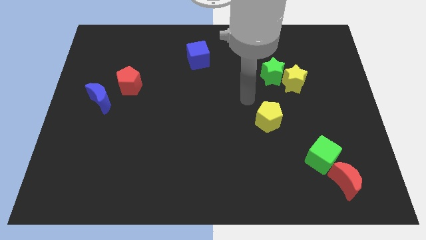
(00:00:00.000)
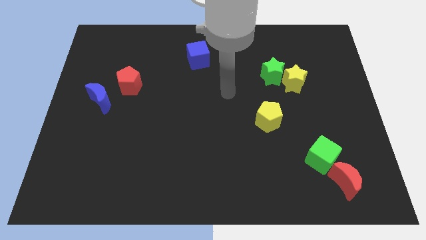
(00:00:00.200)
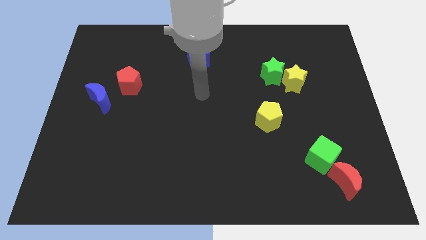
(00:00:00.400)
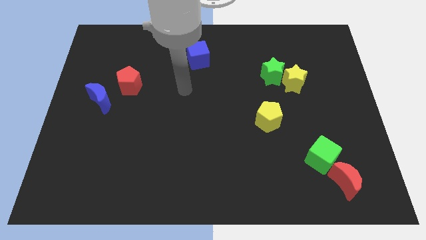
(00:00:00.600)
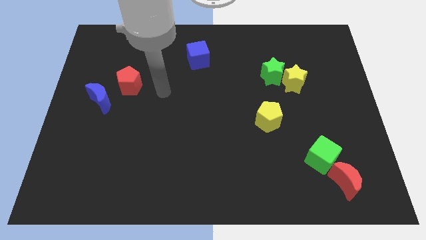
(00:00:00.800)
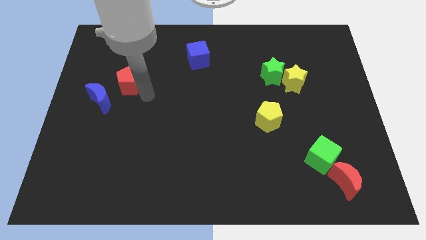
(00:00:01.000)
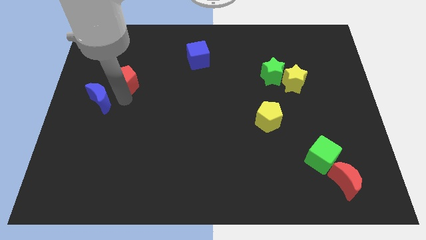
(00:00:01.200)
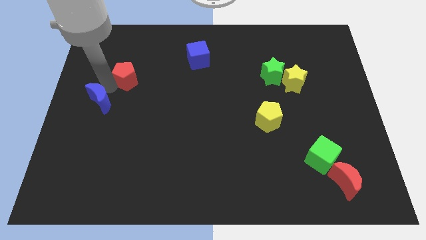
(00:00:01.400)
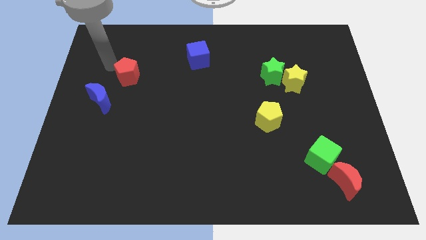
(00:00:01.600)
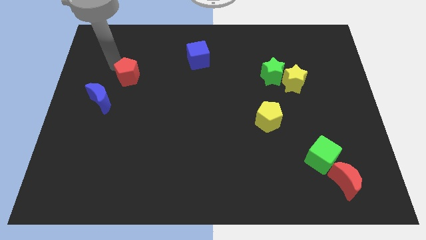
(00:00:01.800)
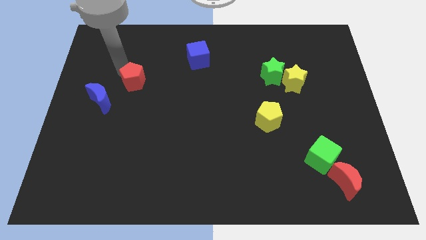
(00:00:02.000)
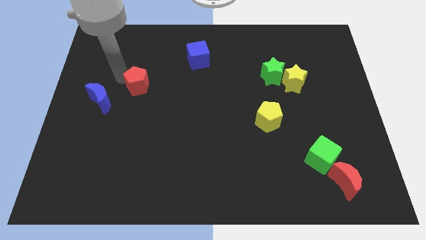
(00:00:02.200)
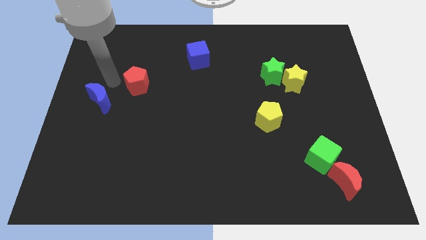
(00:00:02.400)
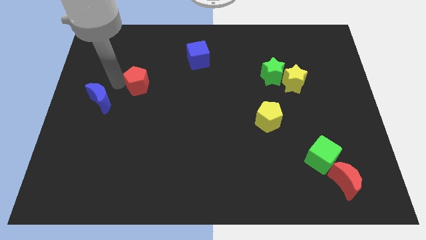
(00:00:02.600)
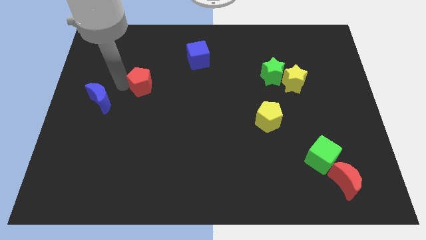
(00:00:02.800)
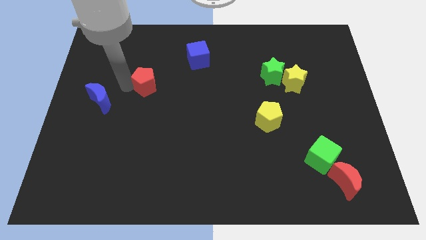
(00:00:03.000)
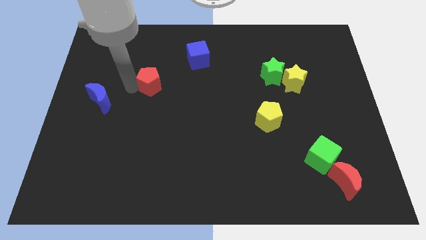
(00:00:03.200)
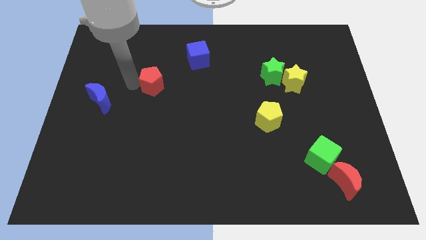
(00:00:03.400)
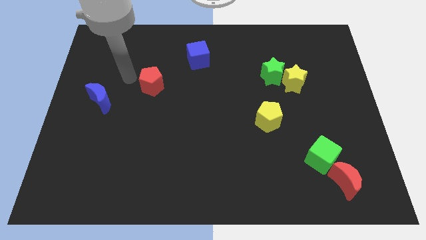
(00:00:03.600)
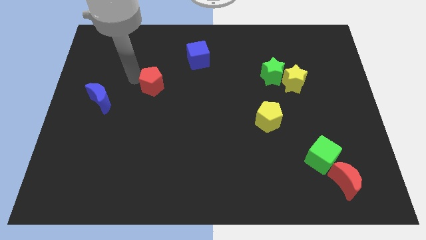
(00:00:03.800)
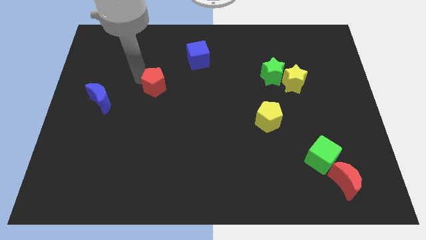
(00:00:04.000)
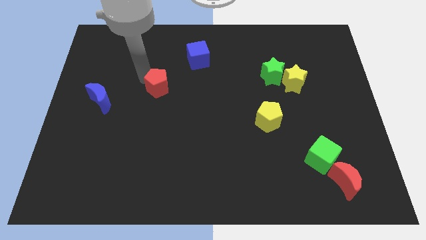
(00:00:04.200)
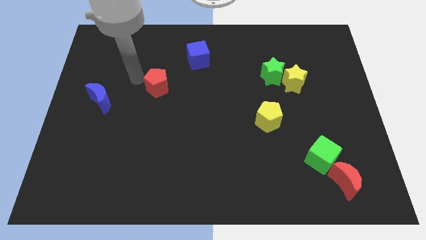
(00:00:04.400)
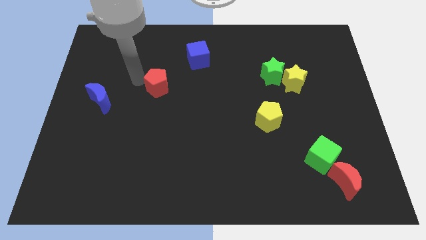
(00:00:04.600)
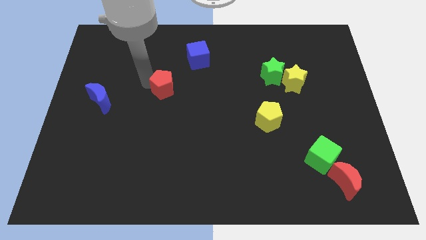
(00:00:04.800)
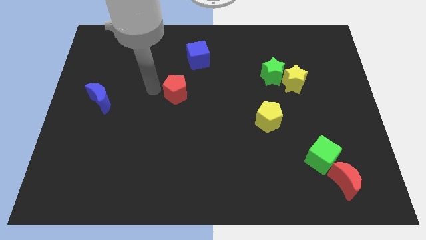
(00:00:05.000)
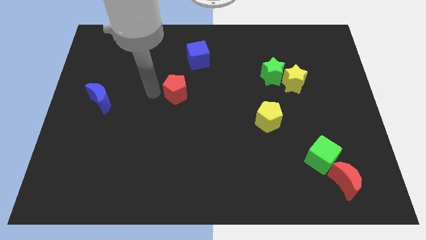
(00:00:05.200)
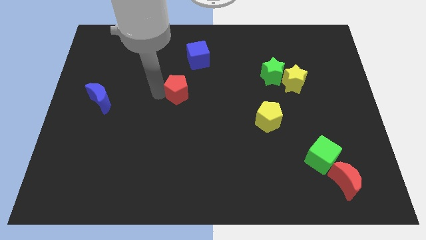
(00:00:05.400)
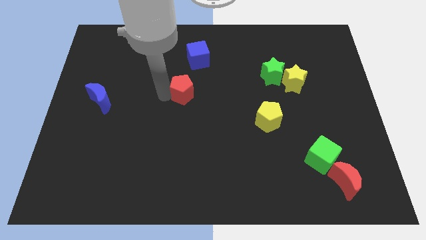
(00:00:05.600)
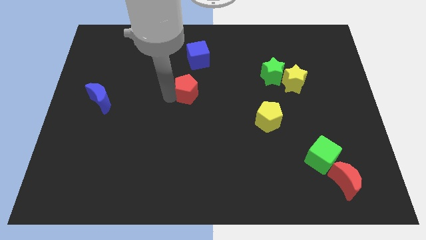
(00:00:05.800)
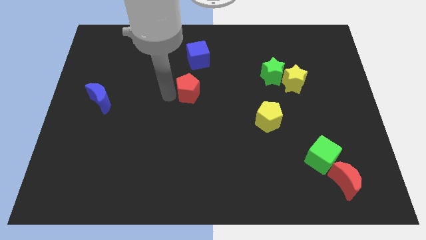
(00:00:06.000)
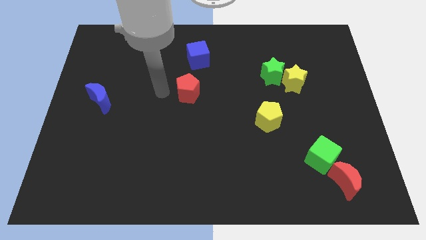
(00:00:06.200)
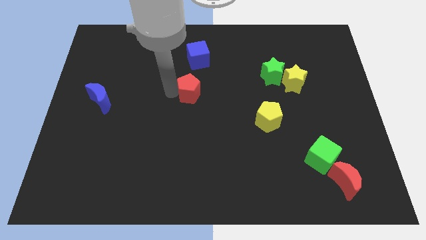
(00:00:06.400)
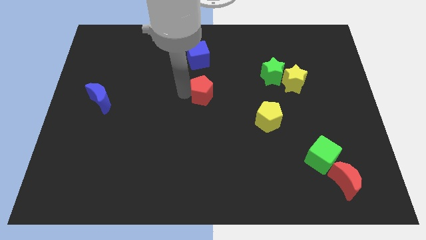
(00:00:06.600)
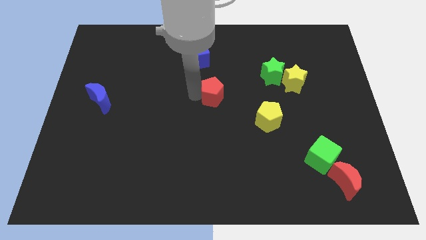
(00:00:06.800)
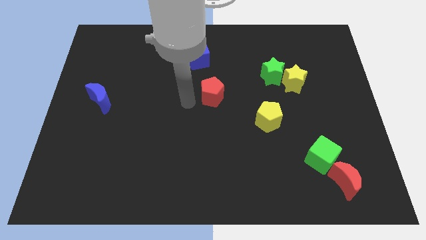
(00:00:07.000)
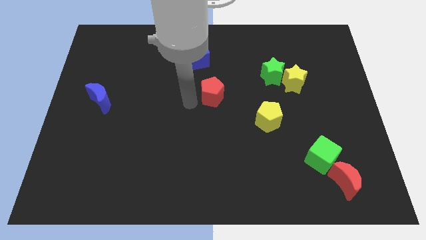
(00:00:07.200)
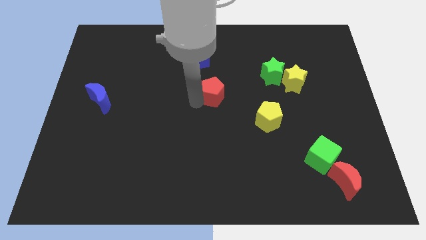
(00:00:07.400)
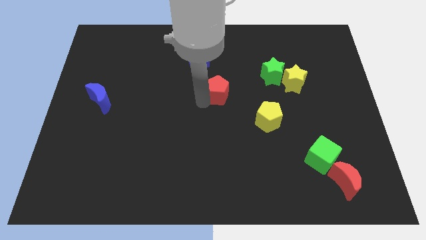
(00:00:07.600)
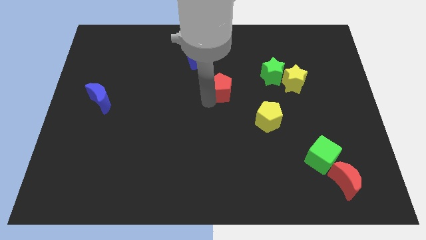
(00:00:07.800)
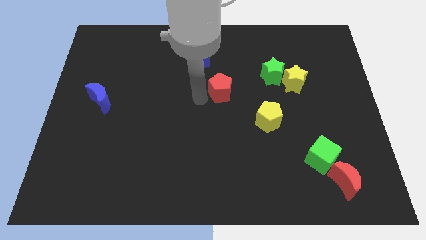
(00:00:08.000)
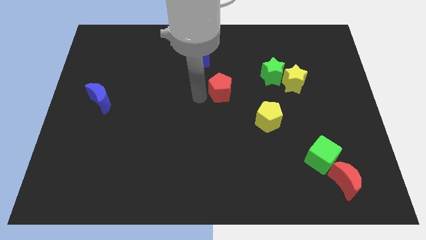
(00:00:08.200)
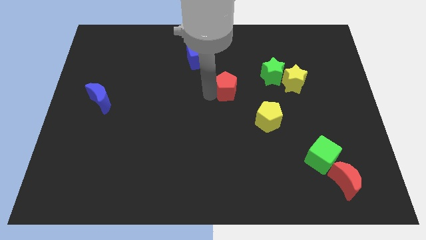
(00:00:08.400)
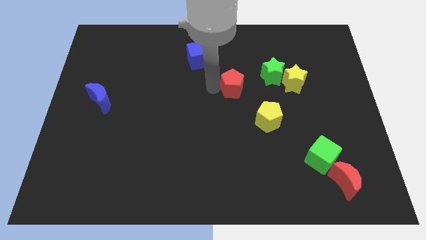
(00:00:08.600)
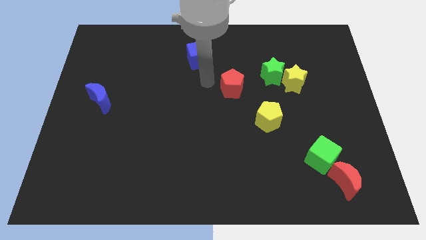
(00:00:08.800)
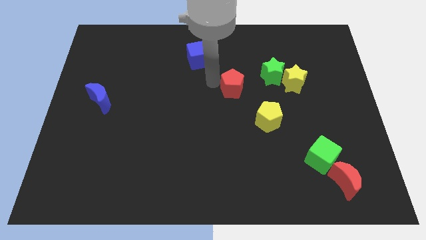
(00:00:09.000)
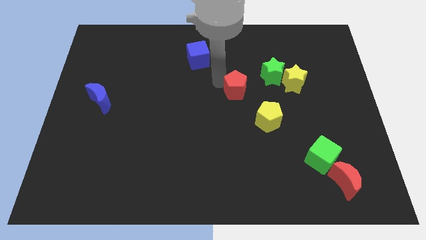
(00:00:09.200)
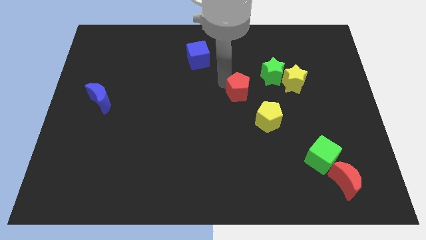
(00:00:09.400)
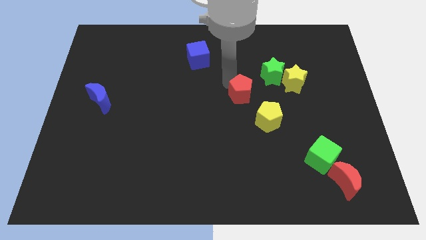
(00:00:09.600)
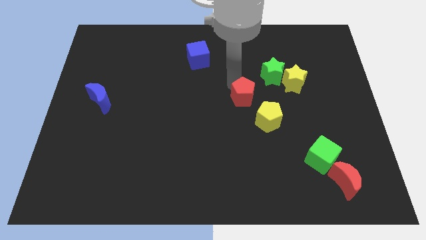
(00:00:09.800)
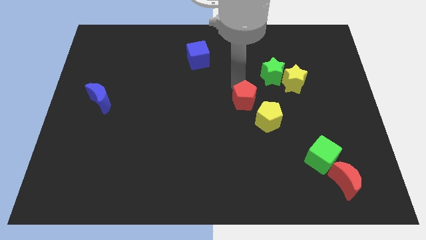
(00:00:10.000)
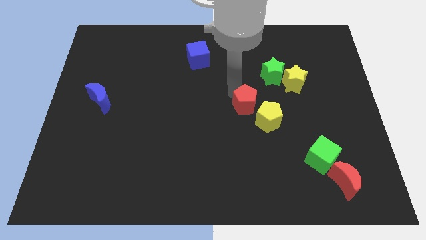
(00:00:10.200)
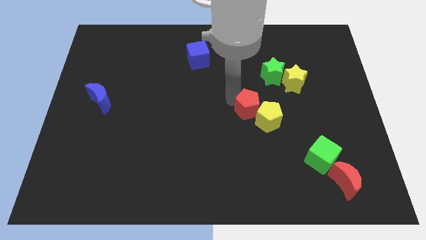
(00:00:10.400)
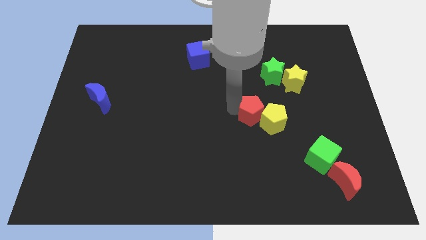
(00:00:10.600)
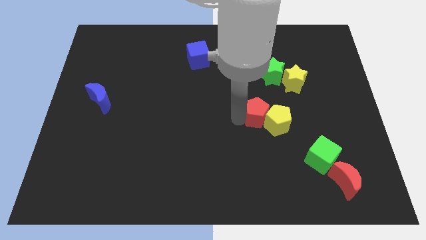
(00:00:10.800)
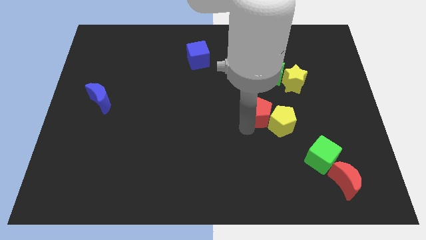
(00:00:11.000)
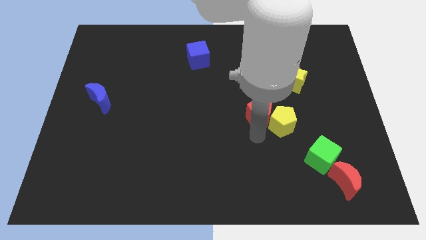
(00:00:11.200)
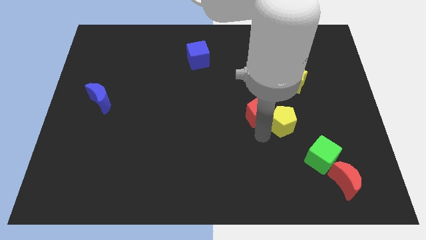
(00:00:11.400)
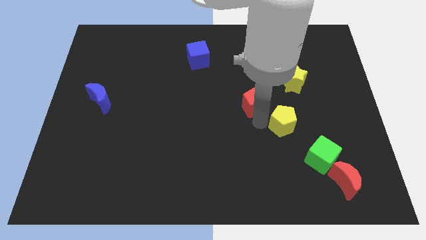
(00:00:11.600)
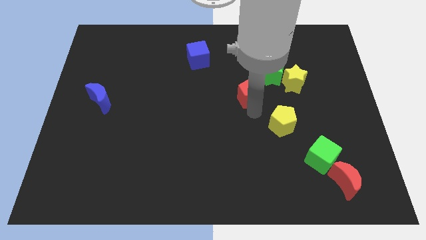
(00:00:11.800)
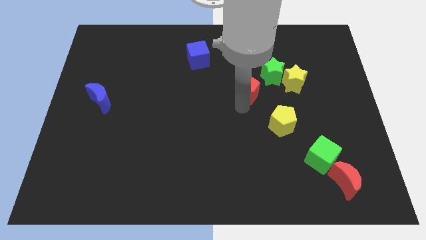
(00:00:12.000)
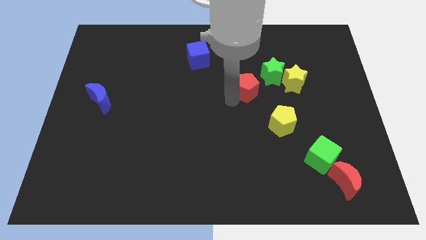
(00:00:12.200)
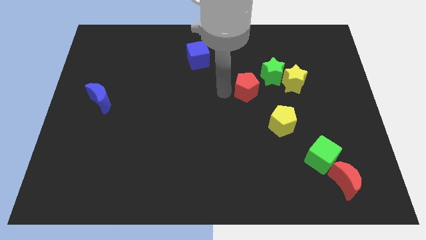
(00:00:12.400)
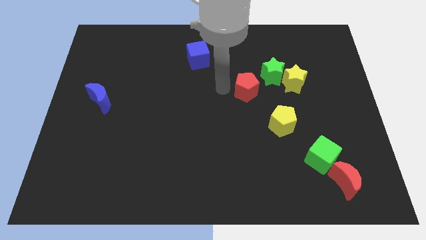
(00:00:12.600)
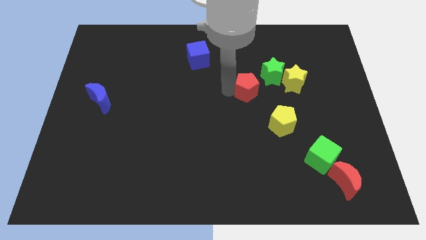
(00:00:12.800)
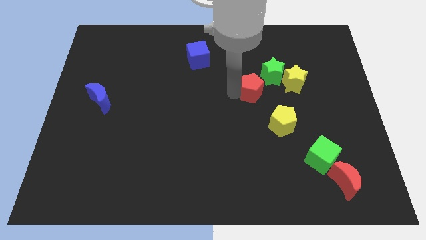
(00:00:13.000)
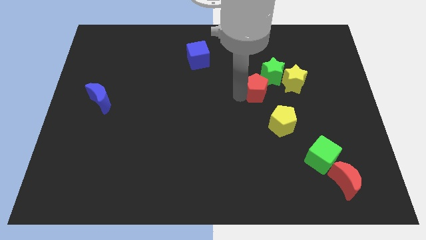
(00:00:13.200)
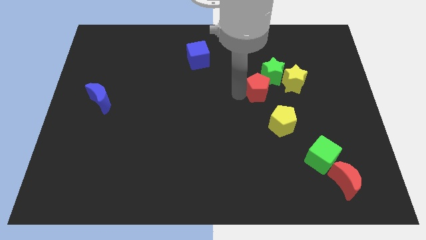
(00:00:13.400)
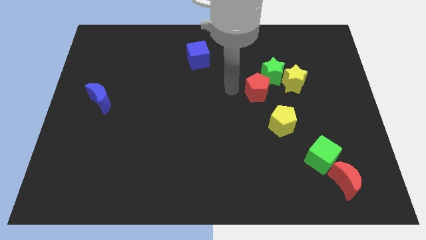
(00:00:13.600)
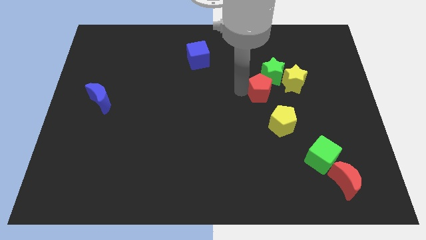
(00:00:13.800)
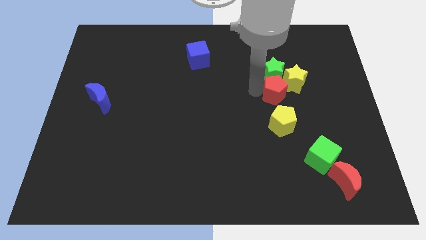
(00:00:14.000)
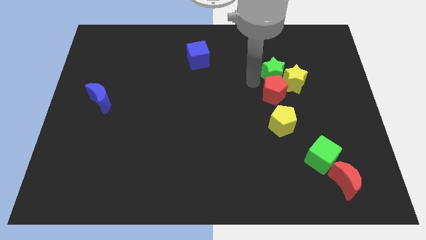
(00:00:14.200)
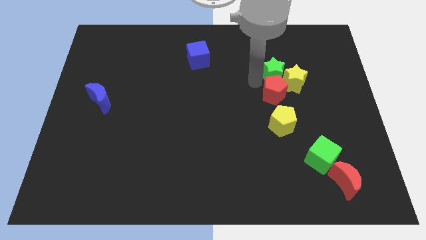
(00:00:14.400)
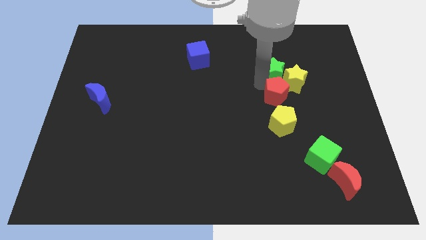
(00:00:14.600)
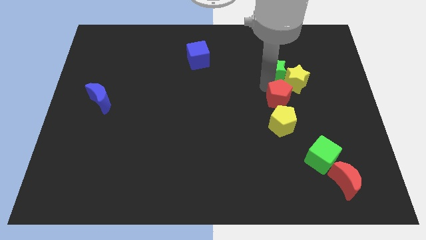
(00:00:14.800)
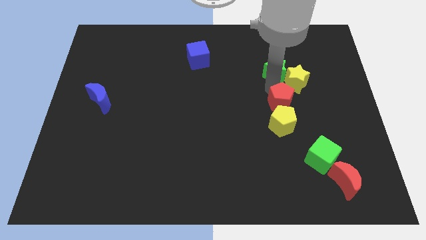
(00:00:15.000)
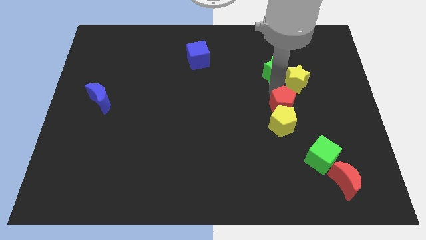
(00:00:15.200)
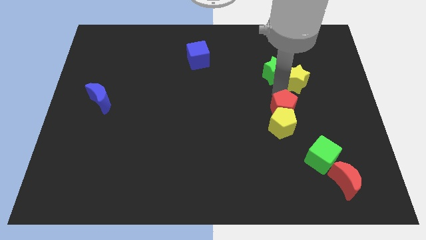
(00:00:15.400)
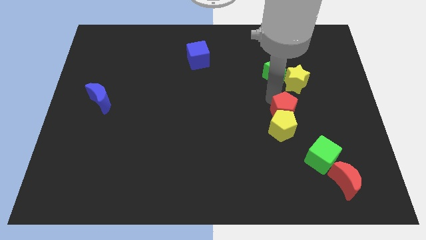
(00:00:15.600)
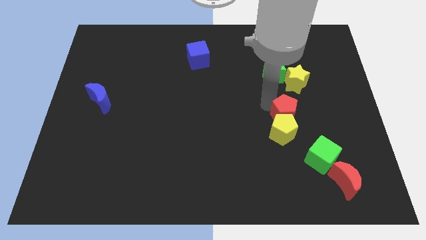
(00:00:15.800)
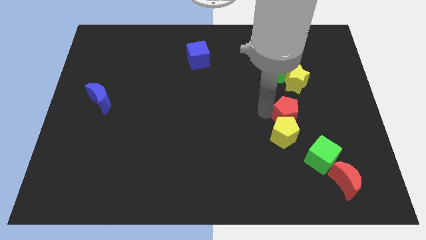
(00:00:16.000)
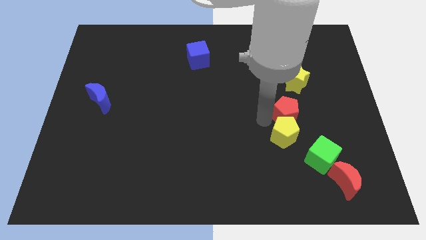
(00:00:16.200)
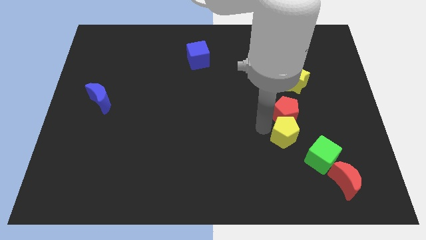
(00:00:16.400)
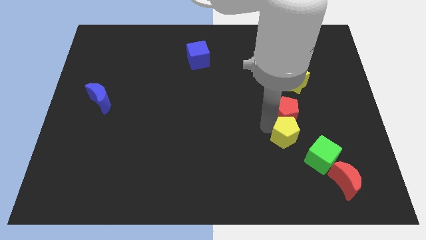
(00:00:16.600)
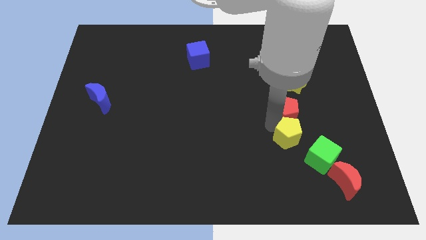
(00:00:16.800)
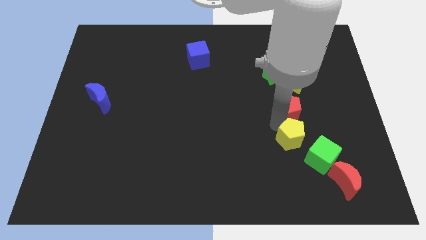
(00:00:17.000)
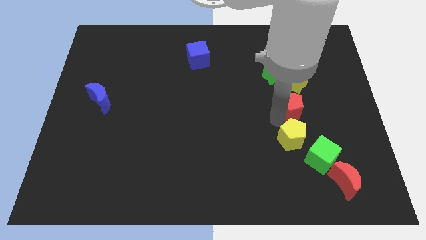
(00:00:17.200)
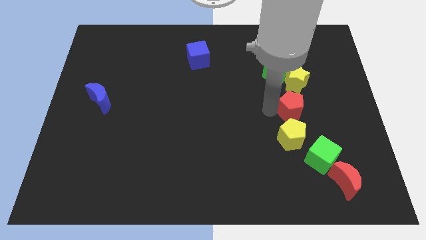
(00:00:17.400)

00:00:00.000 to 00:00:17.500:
push the red pentagon above the green cube
